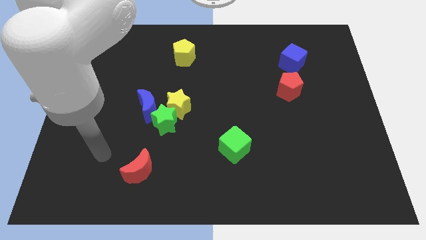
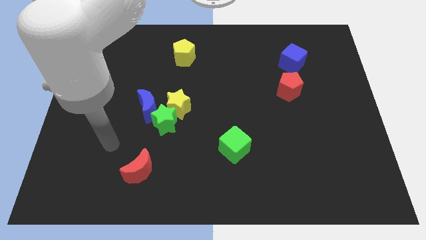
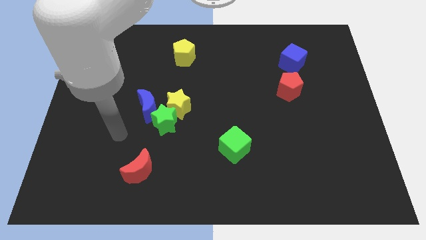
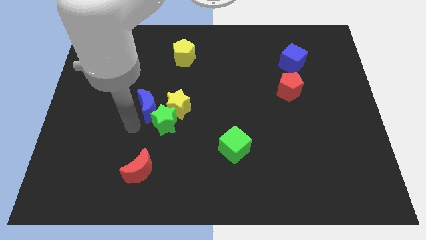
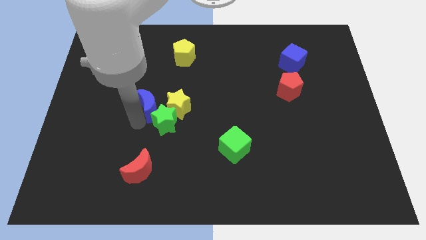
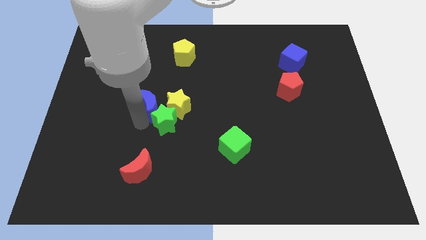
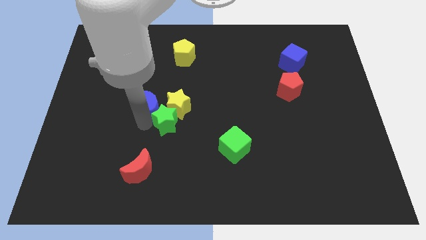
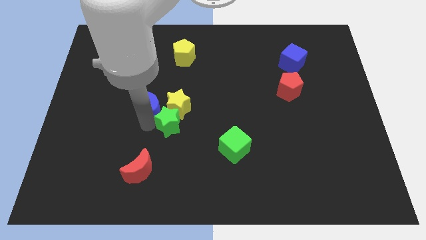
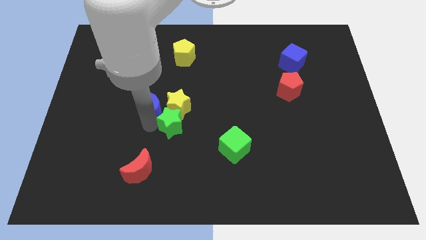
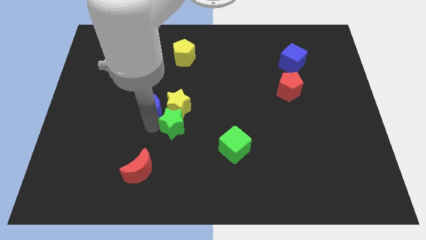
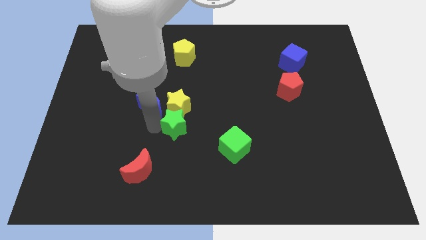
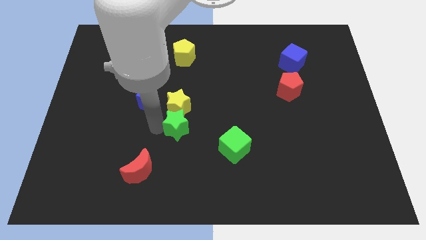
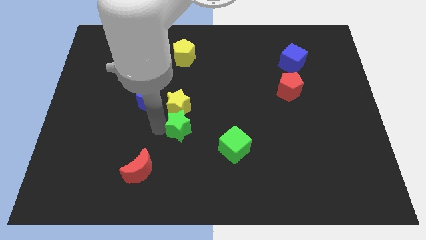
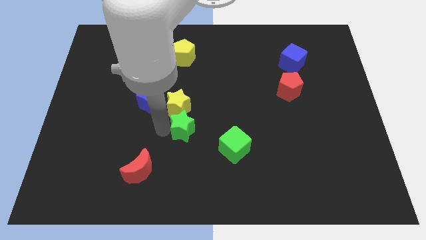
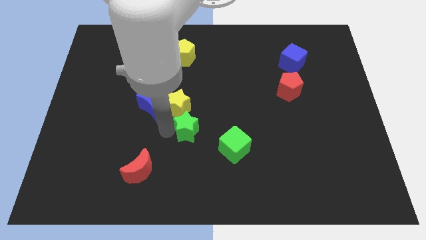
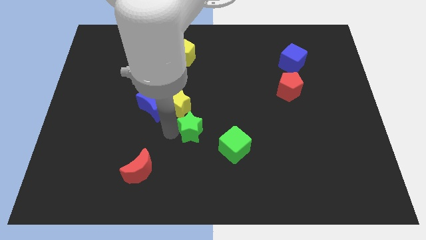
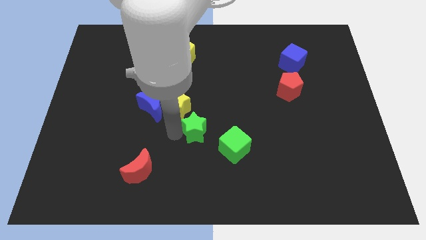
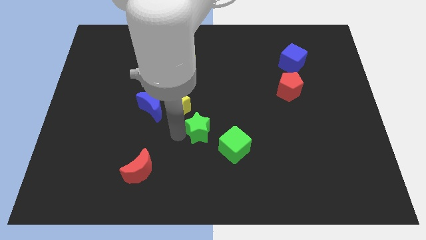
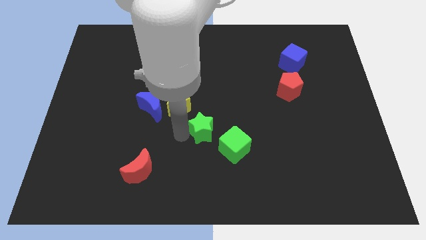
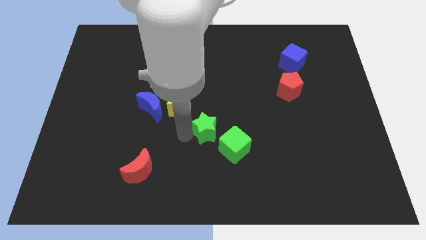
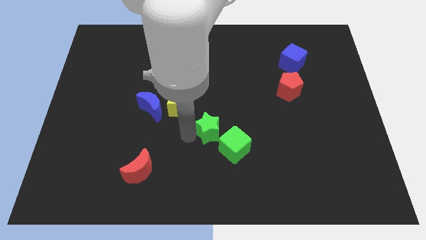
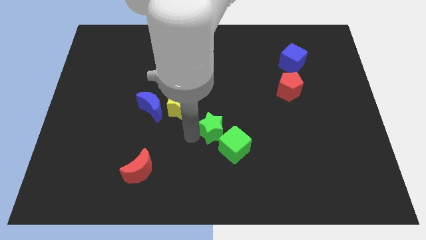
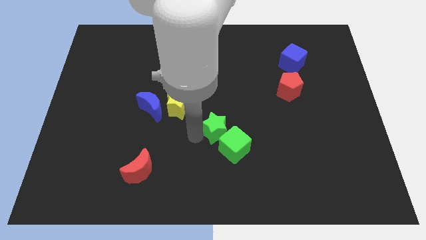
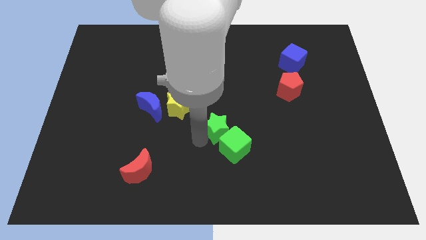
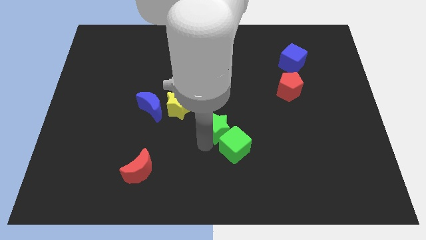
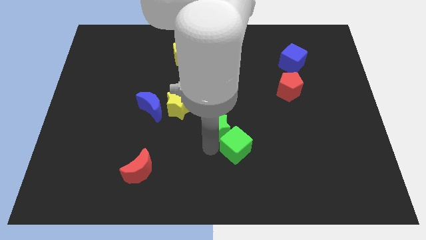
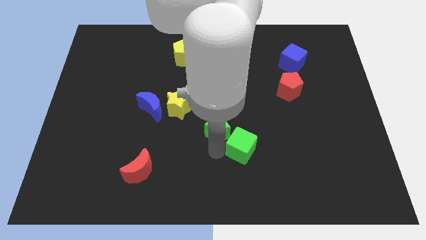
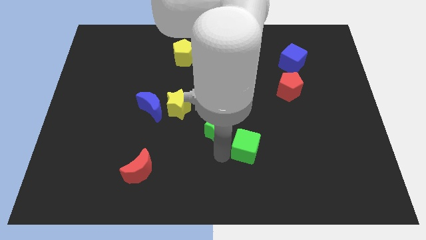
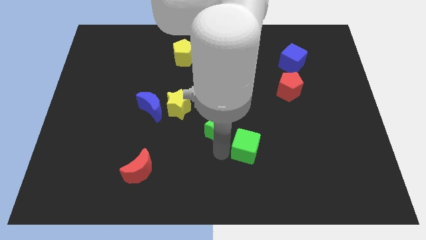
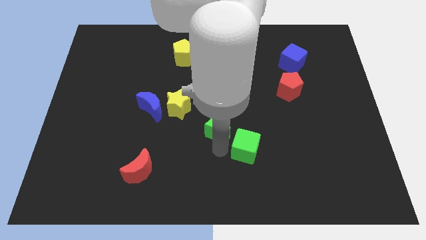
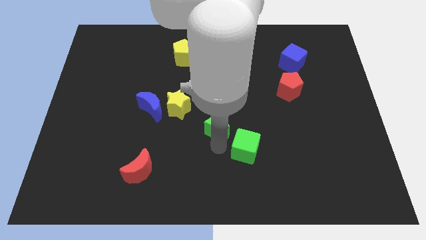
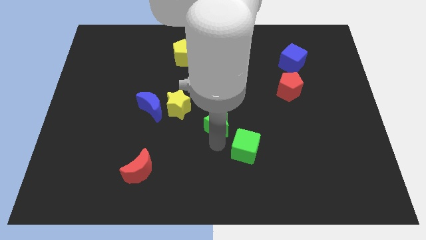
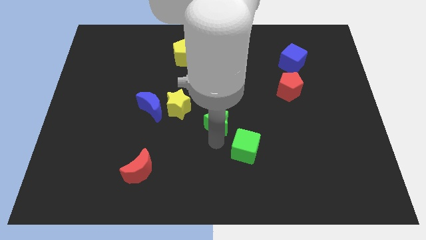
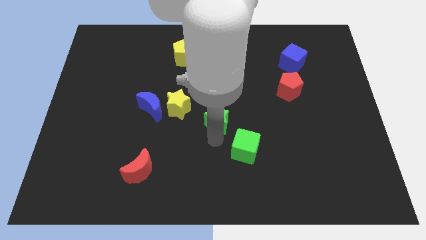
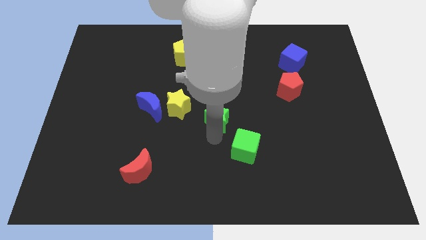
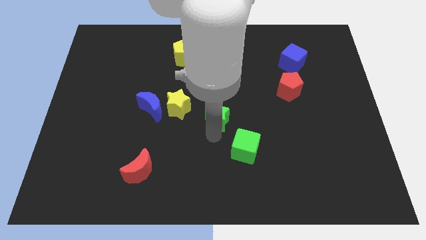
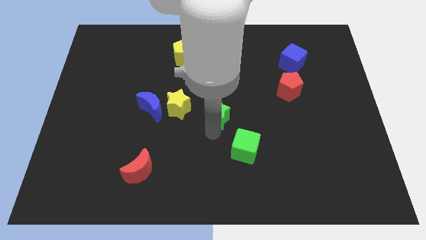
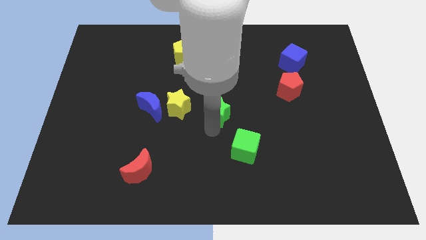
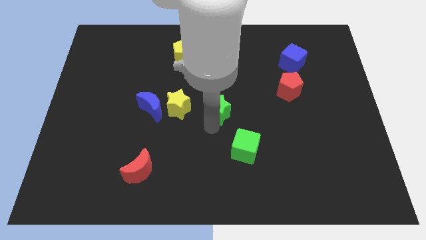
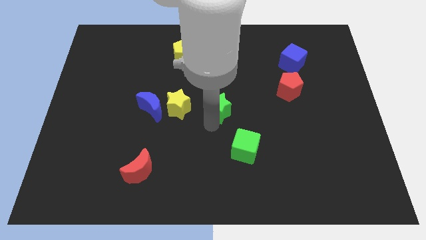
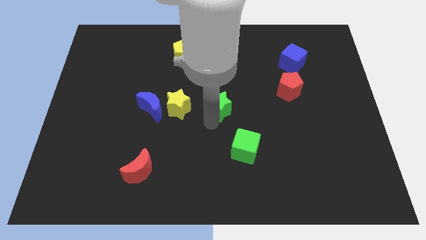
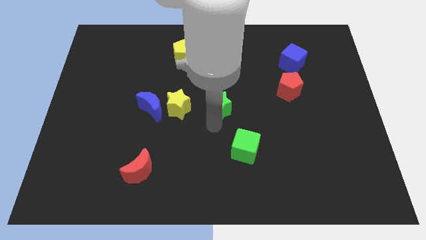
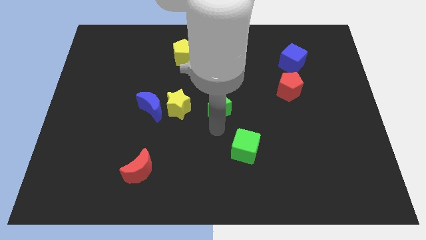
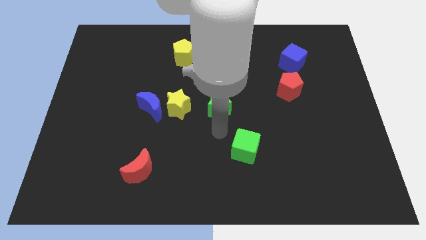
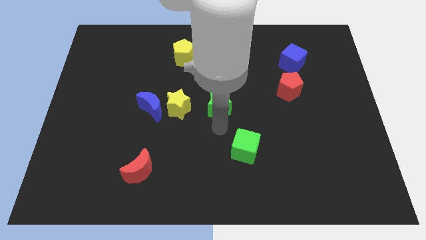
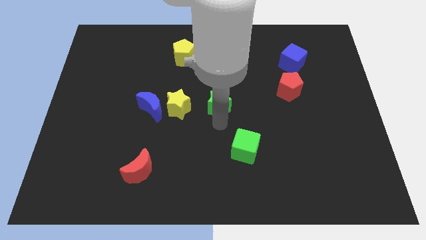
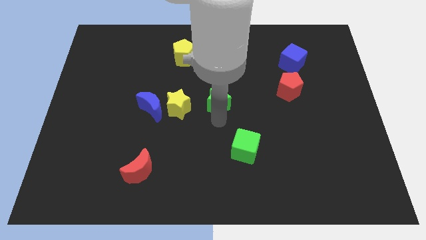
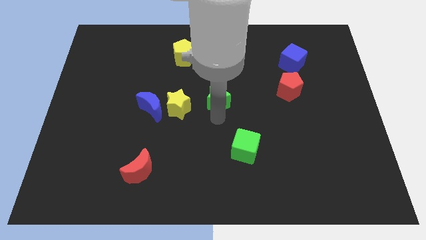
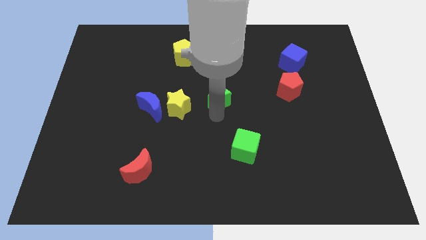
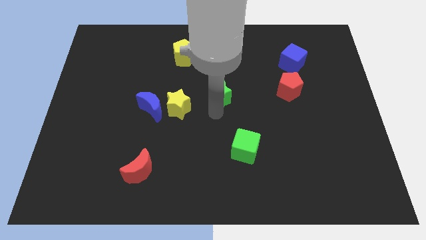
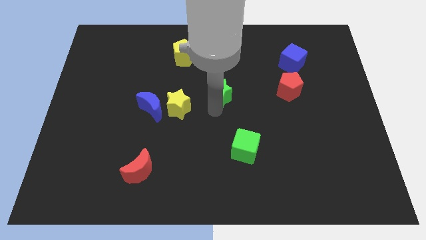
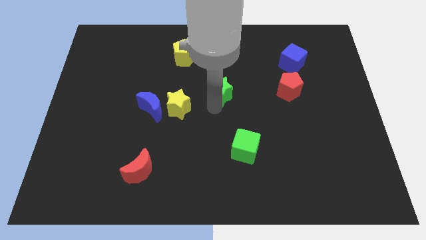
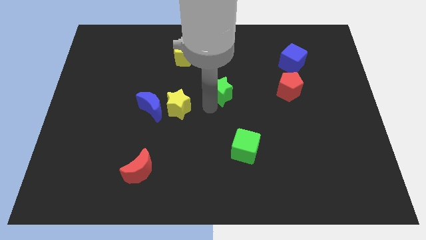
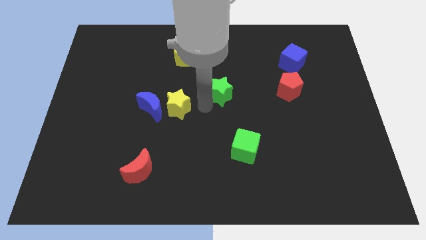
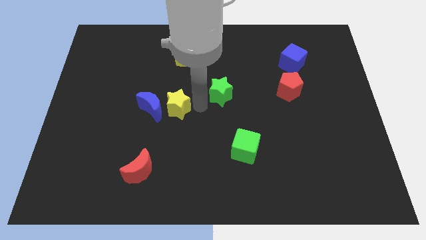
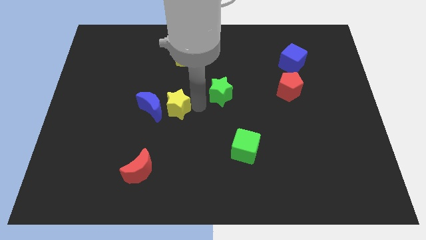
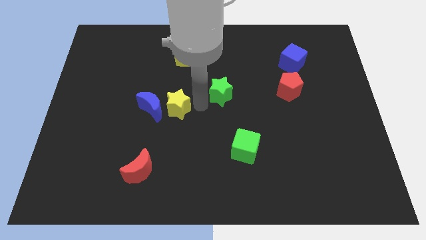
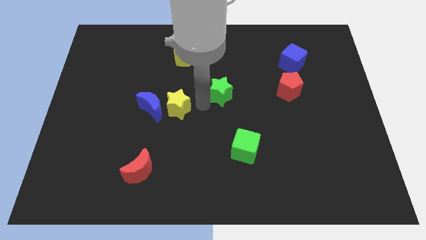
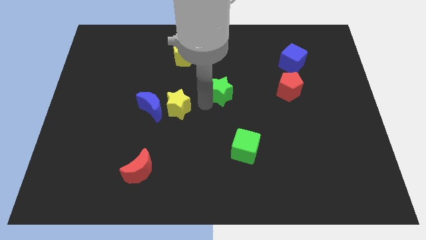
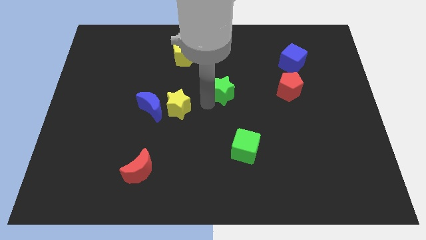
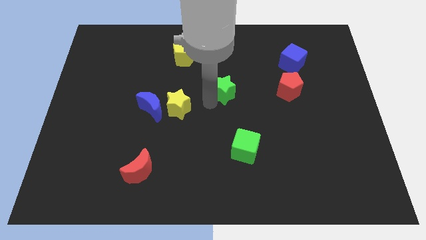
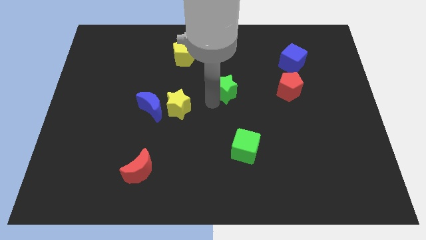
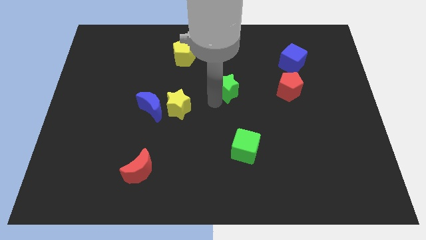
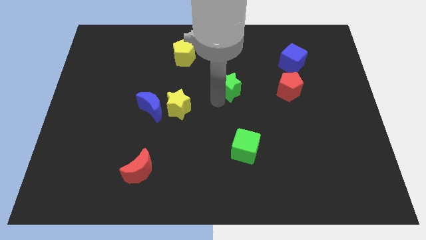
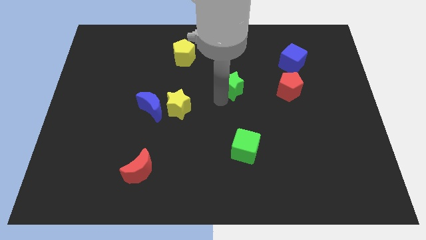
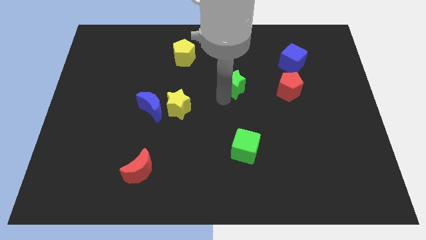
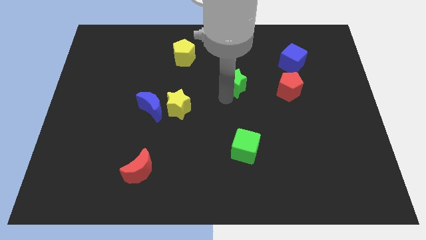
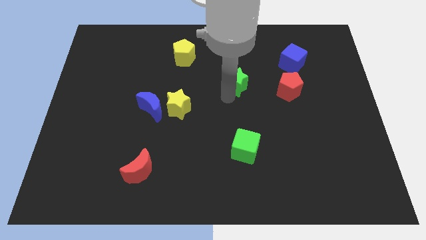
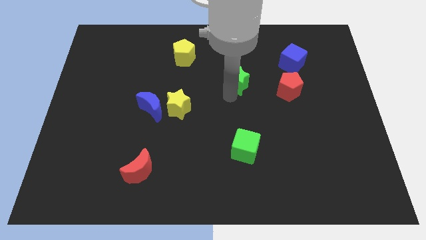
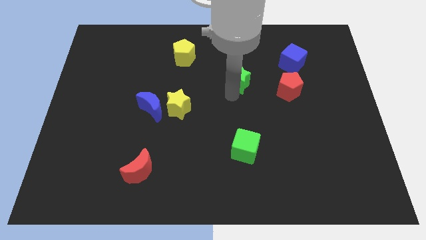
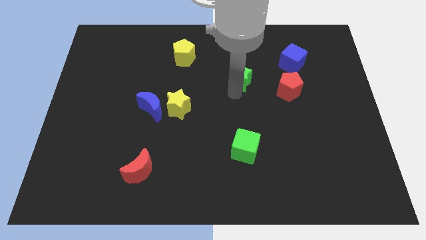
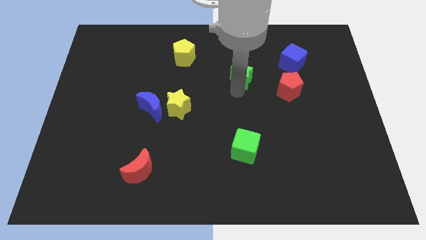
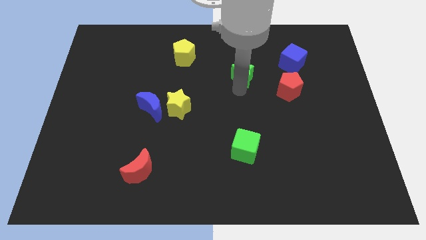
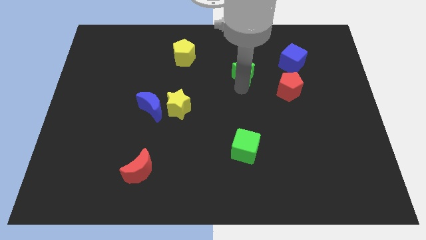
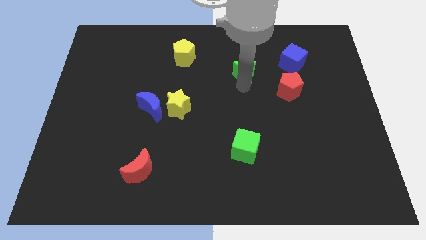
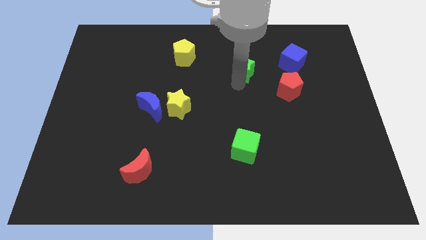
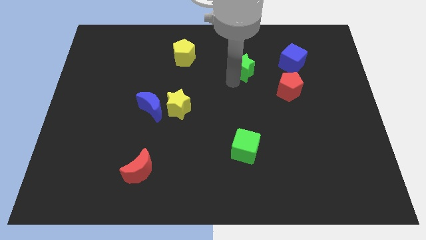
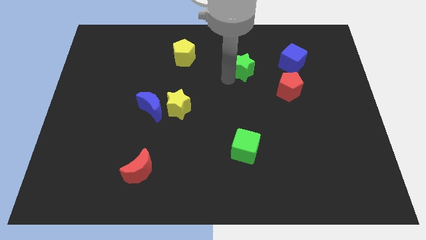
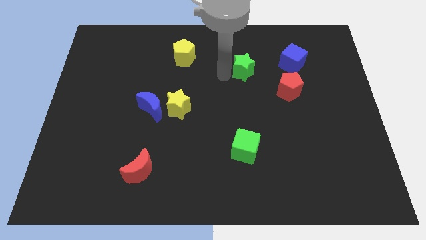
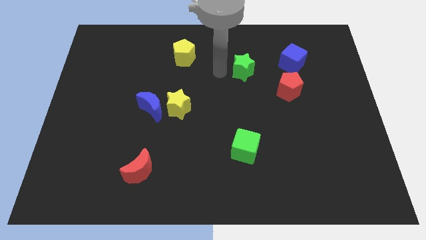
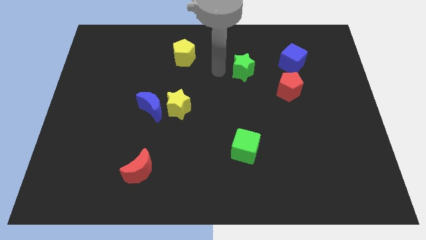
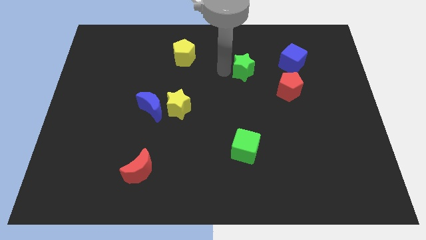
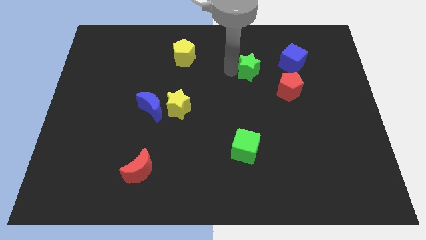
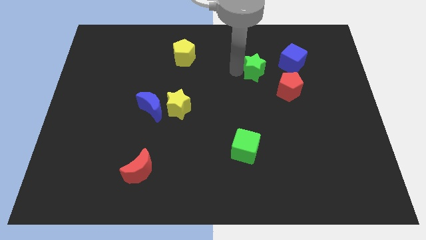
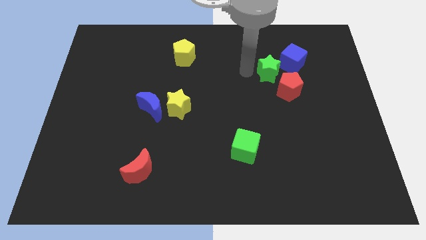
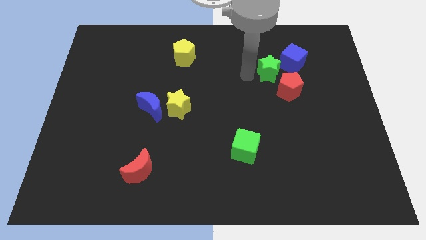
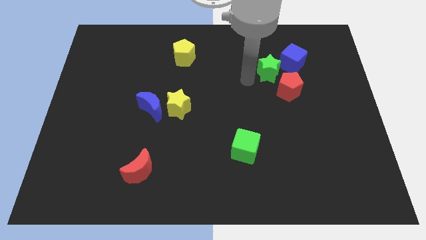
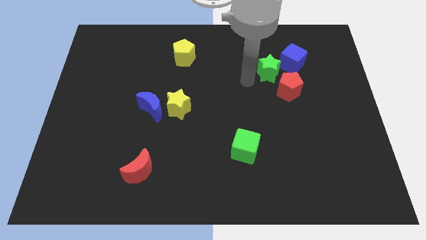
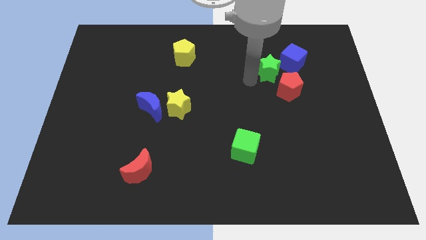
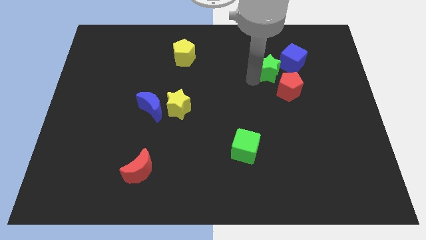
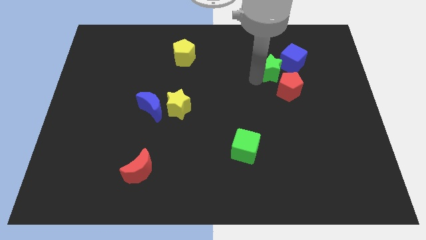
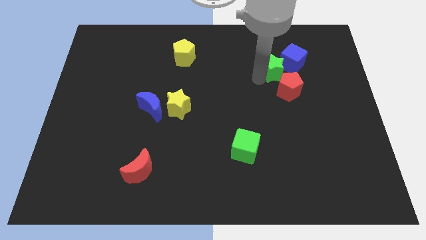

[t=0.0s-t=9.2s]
move the green star to the blue cube
